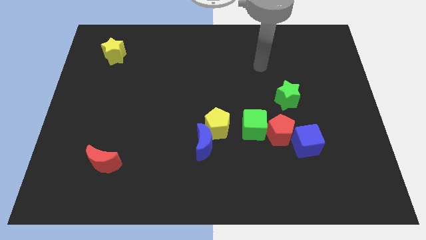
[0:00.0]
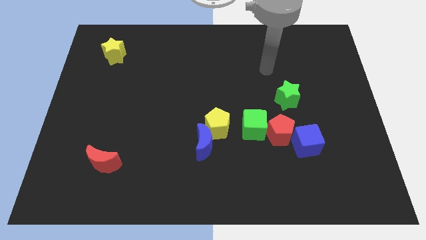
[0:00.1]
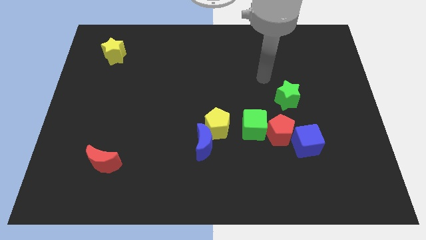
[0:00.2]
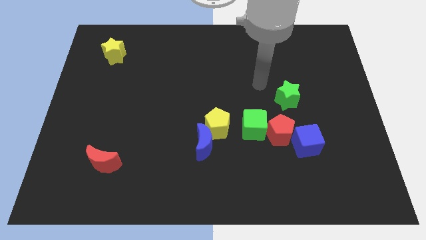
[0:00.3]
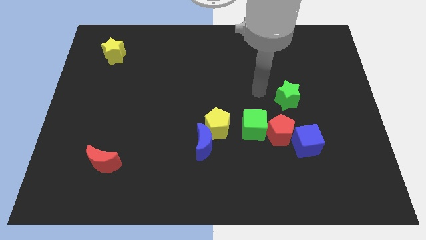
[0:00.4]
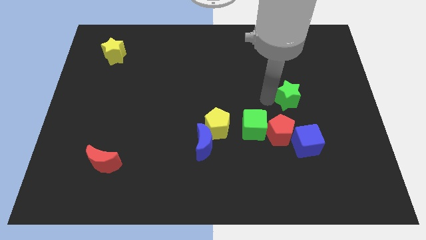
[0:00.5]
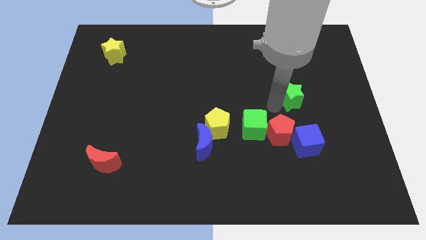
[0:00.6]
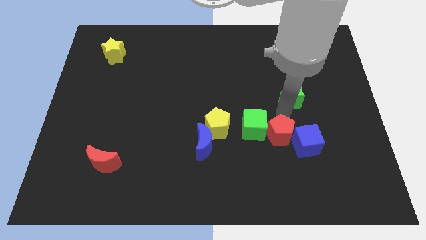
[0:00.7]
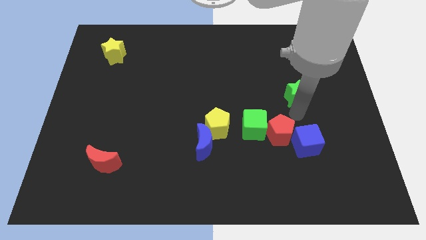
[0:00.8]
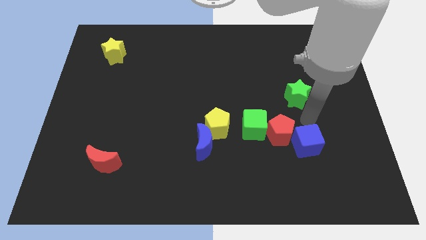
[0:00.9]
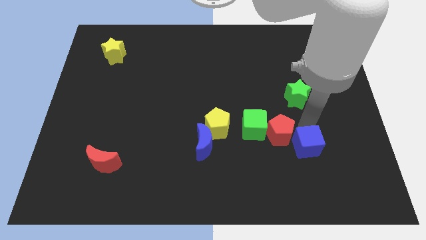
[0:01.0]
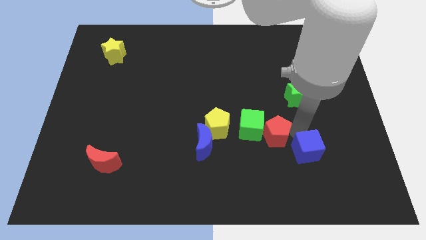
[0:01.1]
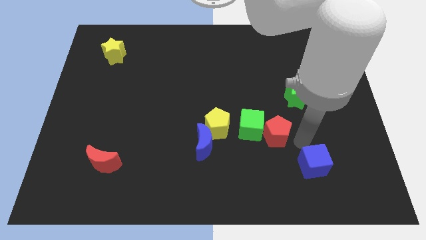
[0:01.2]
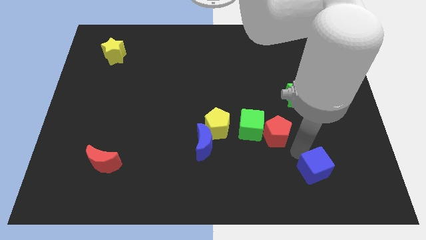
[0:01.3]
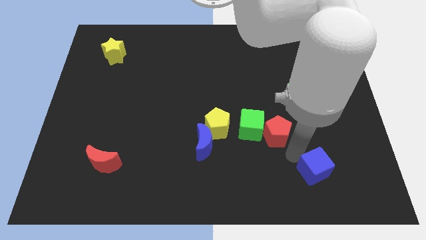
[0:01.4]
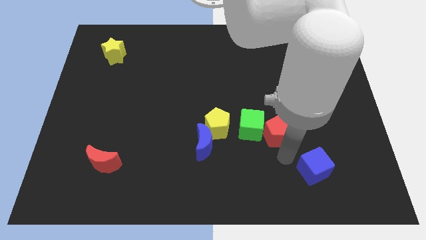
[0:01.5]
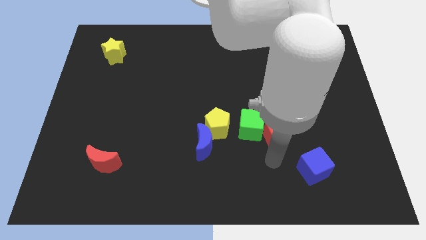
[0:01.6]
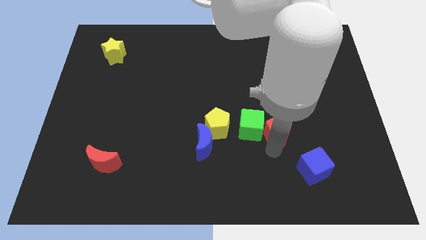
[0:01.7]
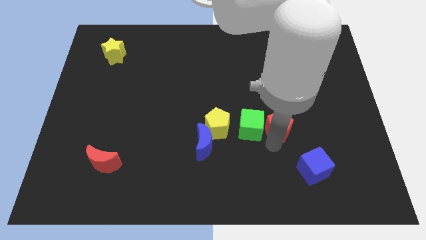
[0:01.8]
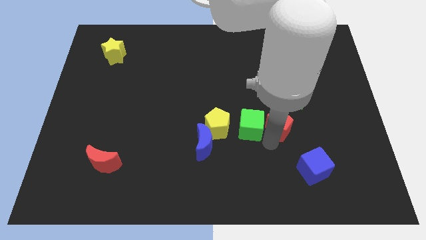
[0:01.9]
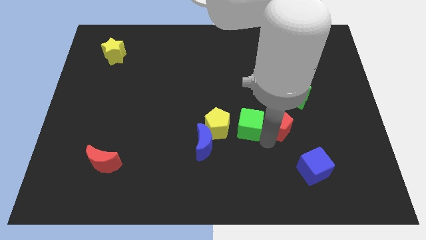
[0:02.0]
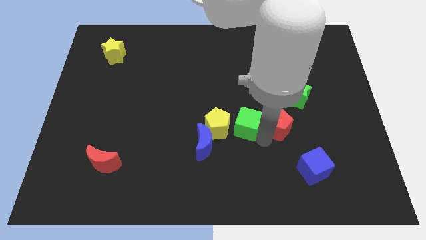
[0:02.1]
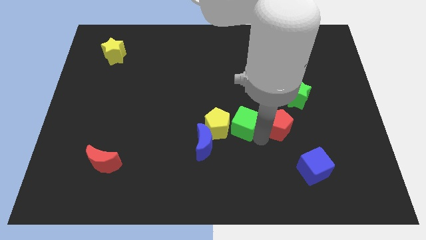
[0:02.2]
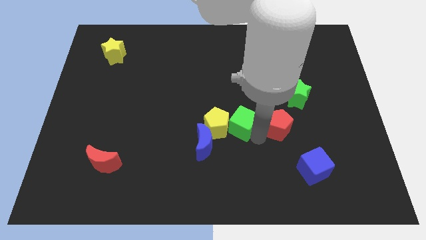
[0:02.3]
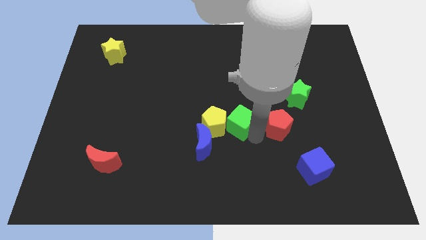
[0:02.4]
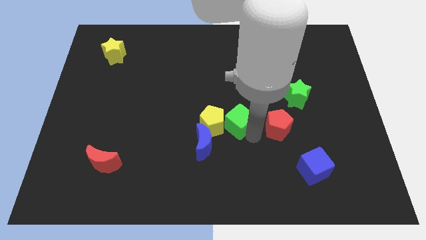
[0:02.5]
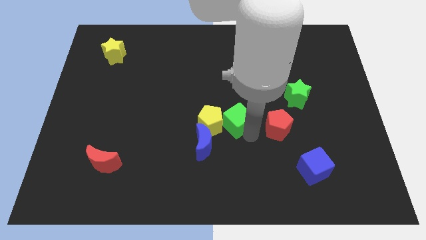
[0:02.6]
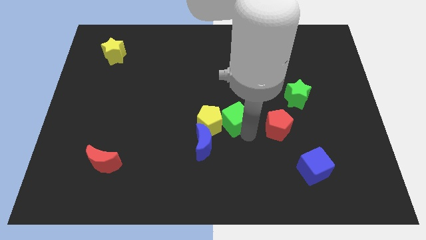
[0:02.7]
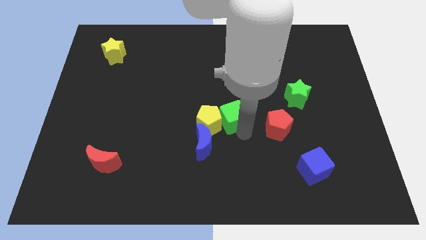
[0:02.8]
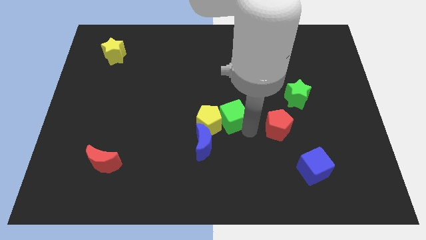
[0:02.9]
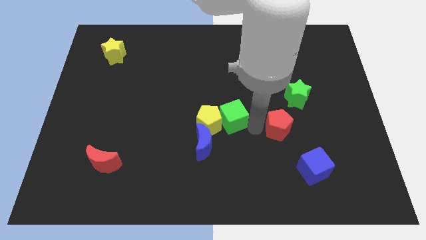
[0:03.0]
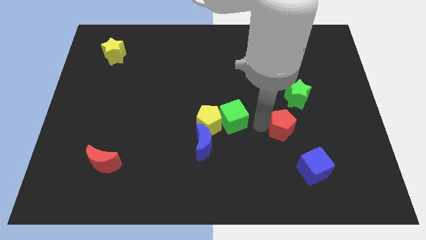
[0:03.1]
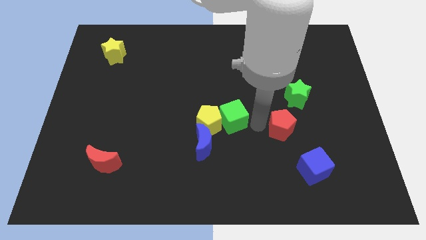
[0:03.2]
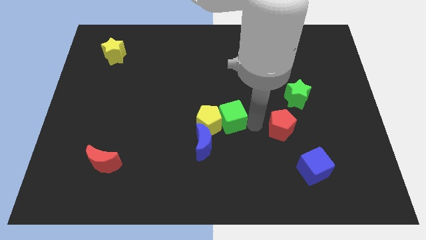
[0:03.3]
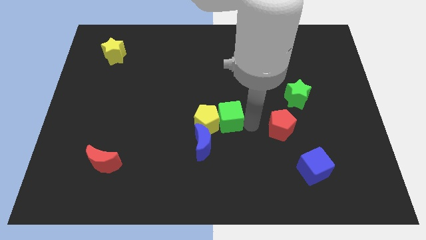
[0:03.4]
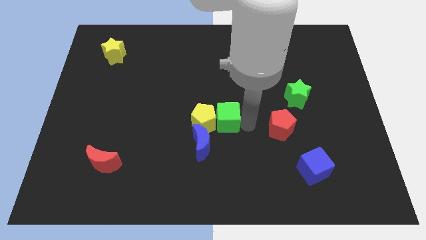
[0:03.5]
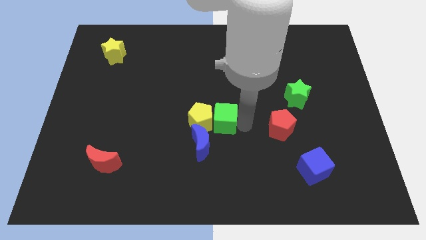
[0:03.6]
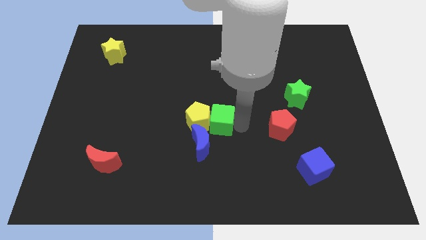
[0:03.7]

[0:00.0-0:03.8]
move the green cube left a bit

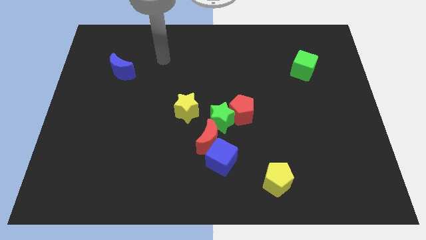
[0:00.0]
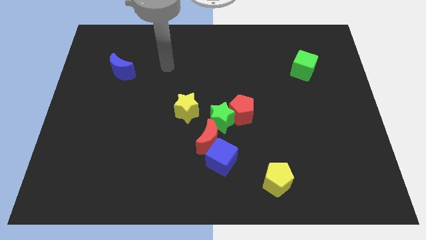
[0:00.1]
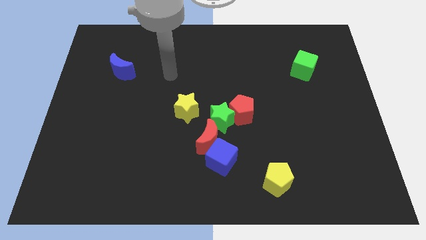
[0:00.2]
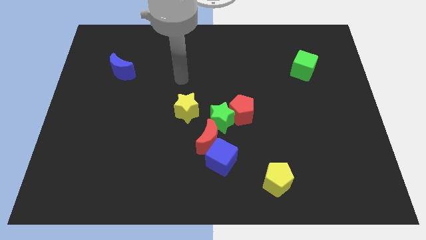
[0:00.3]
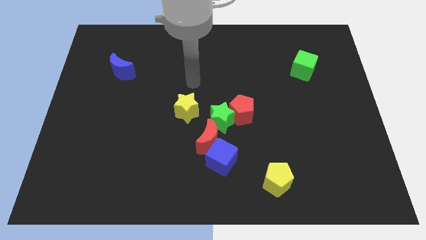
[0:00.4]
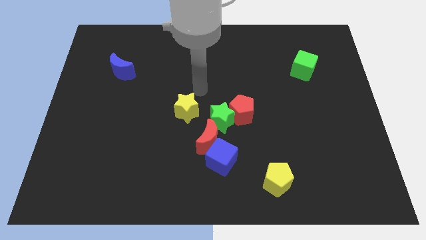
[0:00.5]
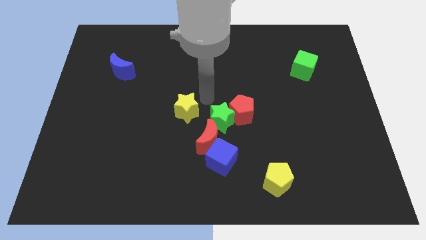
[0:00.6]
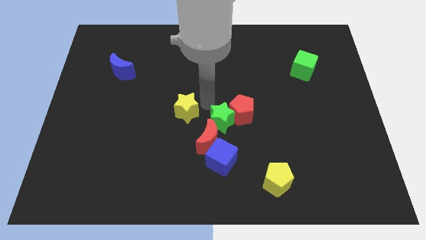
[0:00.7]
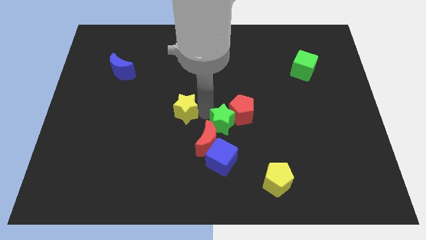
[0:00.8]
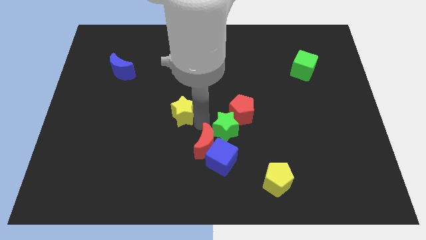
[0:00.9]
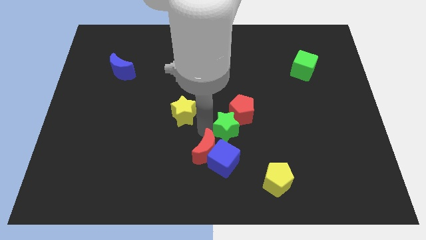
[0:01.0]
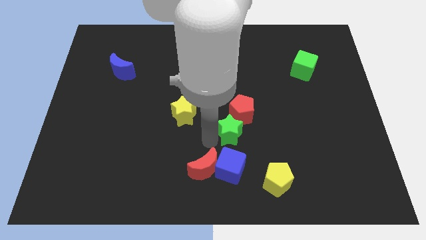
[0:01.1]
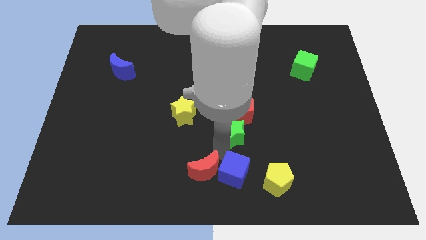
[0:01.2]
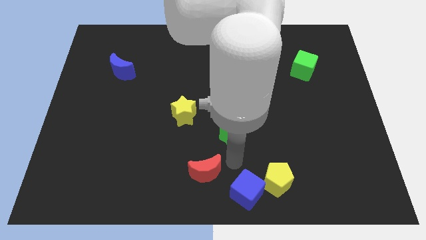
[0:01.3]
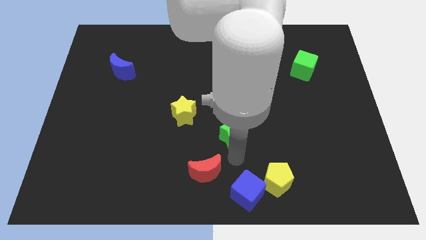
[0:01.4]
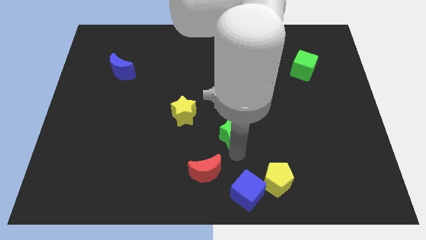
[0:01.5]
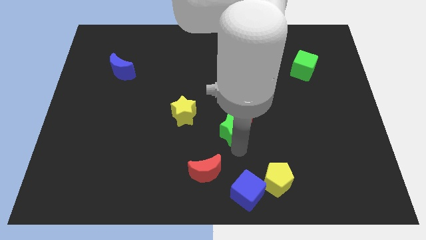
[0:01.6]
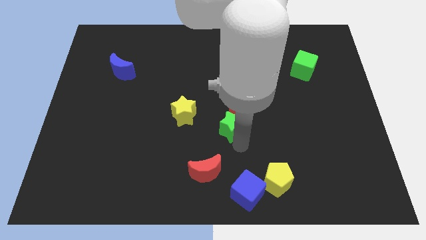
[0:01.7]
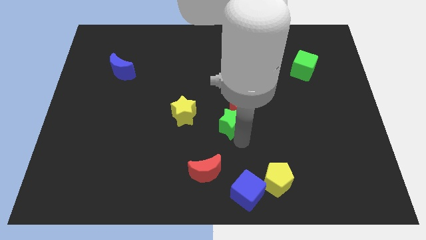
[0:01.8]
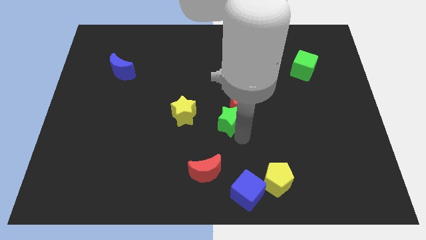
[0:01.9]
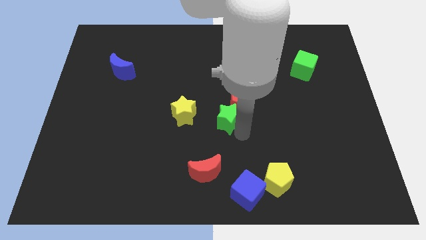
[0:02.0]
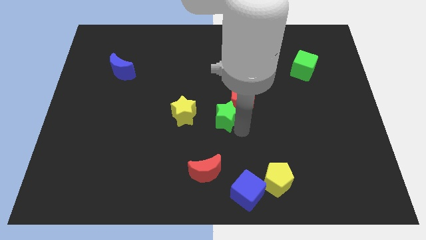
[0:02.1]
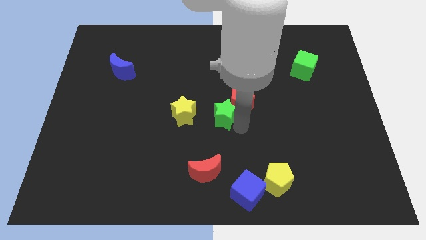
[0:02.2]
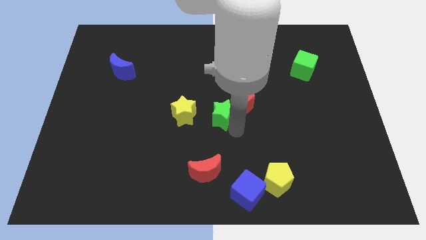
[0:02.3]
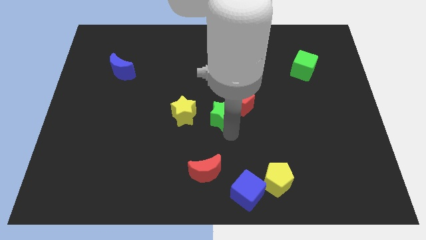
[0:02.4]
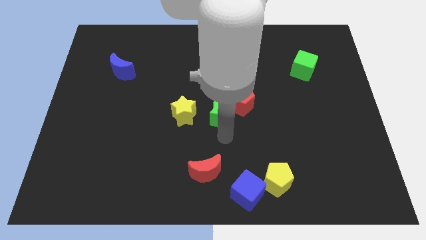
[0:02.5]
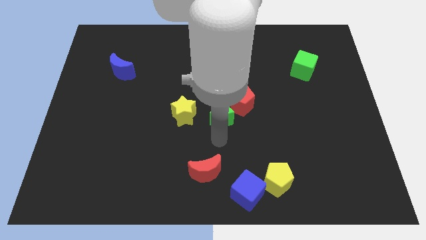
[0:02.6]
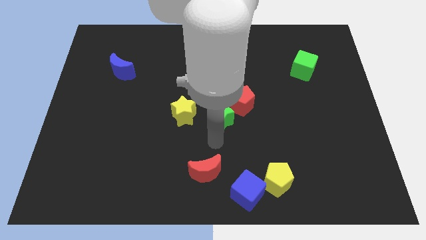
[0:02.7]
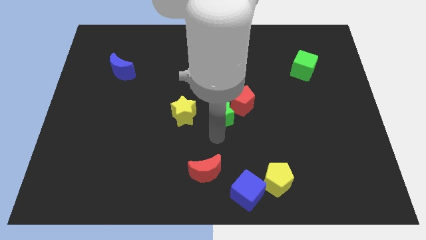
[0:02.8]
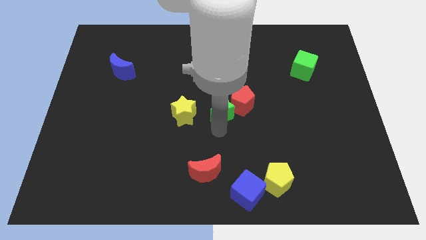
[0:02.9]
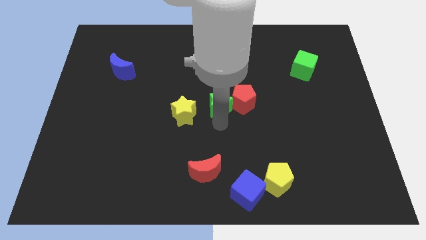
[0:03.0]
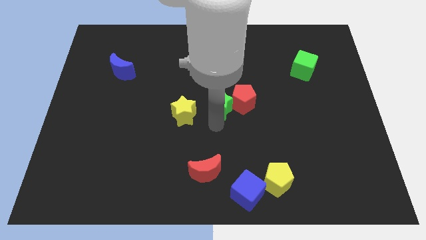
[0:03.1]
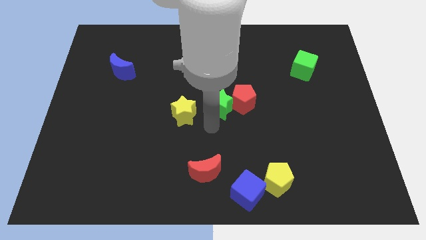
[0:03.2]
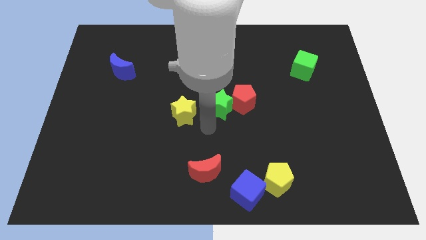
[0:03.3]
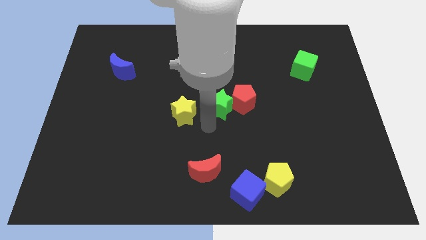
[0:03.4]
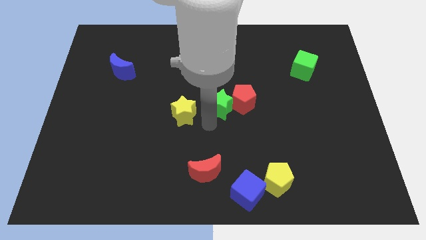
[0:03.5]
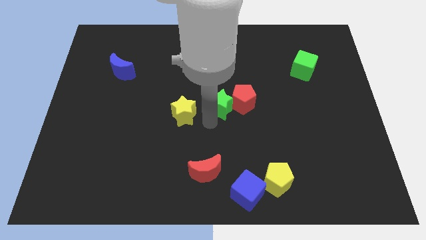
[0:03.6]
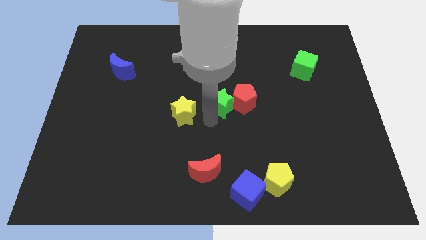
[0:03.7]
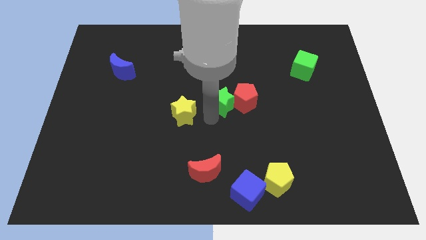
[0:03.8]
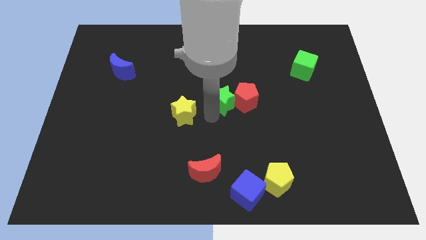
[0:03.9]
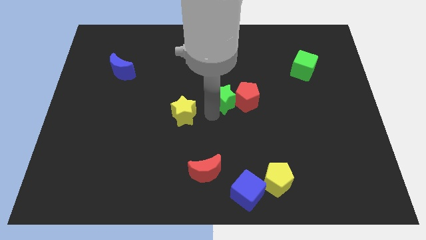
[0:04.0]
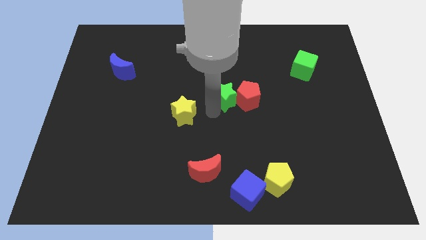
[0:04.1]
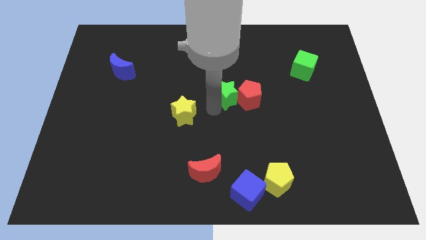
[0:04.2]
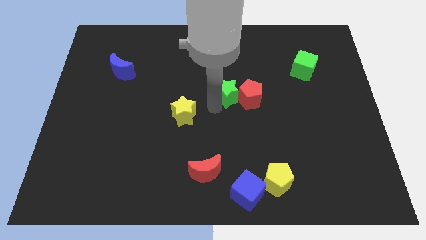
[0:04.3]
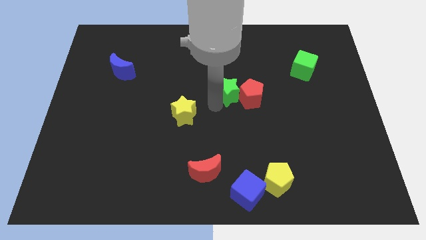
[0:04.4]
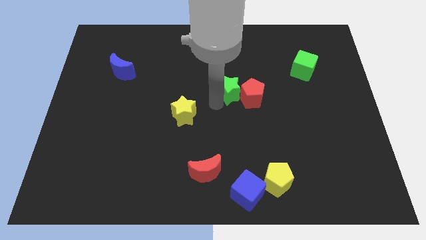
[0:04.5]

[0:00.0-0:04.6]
push the green star slightly up and right
